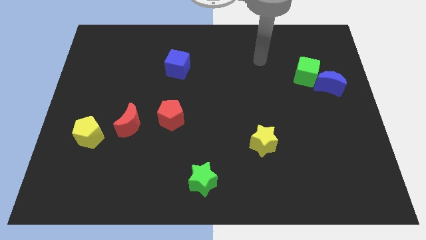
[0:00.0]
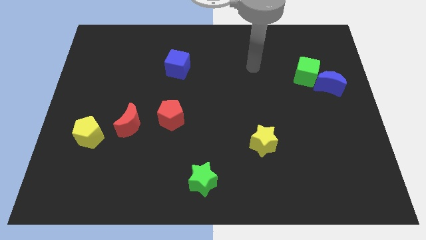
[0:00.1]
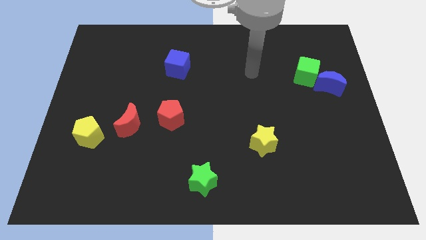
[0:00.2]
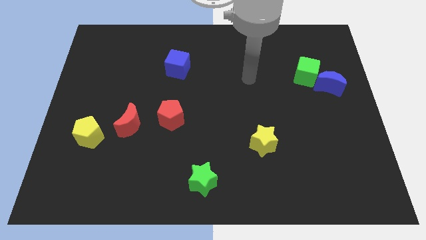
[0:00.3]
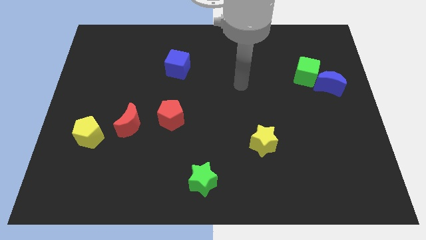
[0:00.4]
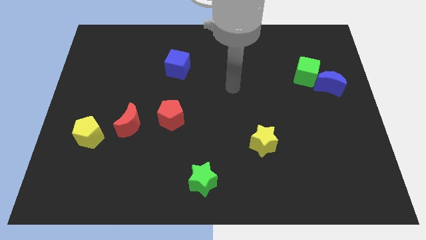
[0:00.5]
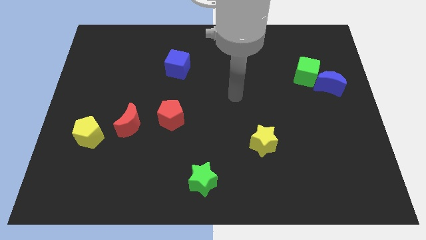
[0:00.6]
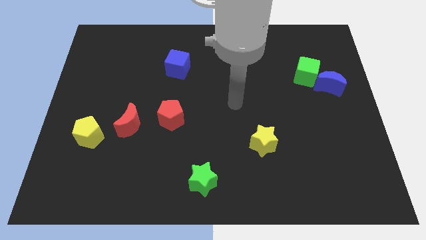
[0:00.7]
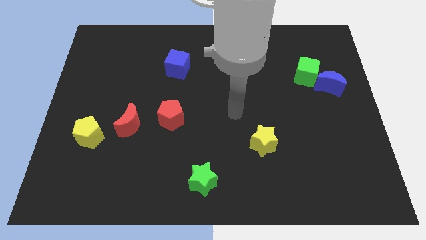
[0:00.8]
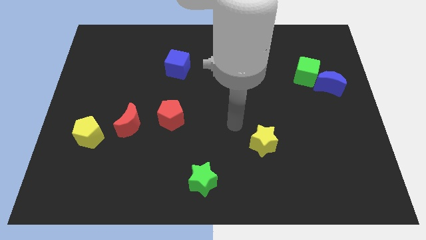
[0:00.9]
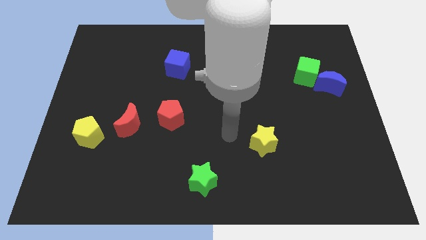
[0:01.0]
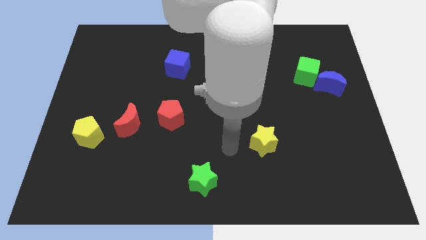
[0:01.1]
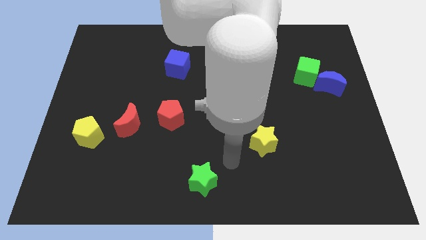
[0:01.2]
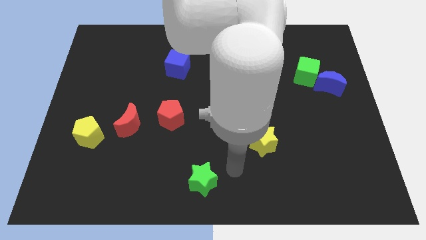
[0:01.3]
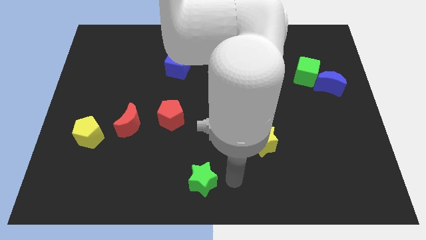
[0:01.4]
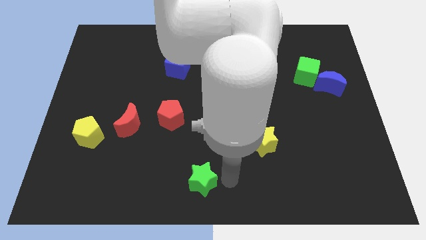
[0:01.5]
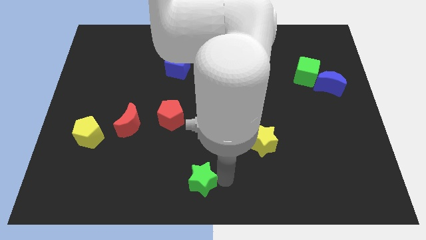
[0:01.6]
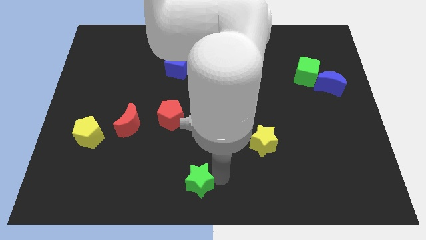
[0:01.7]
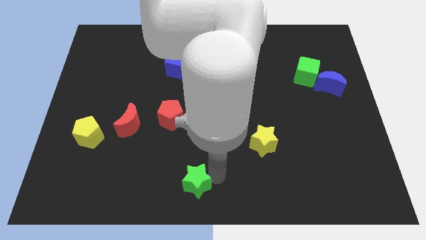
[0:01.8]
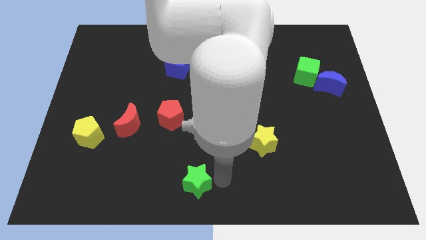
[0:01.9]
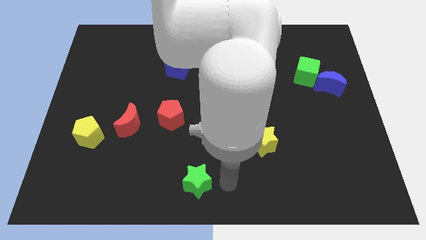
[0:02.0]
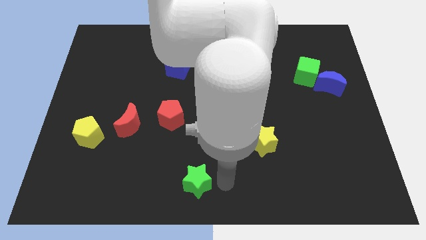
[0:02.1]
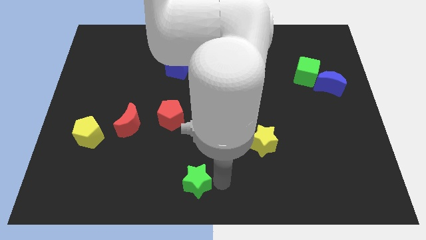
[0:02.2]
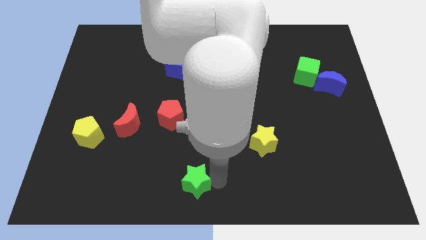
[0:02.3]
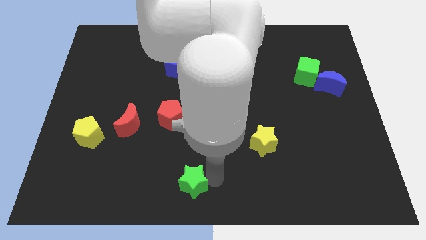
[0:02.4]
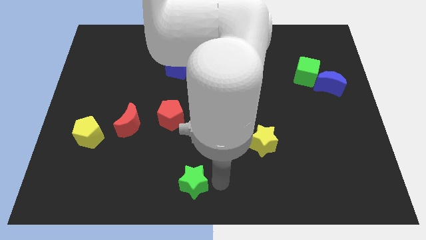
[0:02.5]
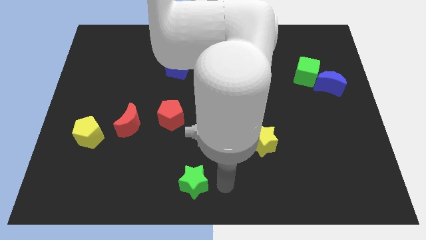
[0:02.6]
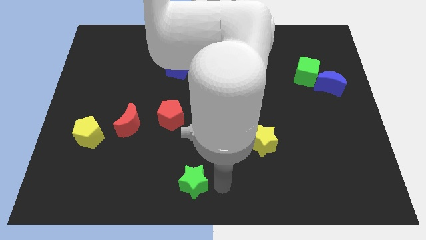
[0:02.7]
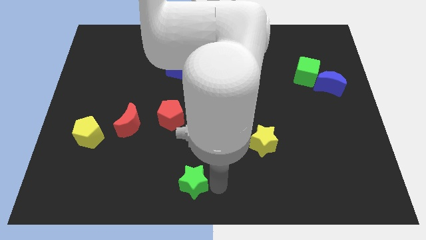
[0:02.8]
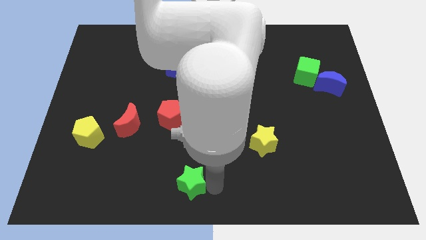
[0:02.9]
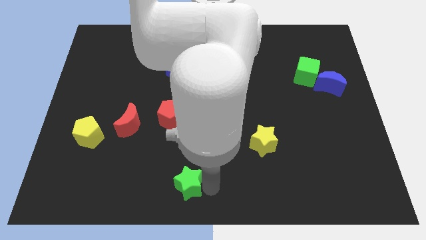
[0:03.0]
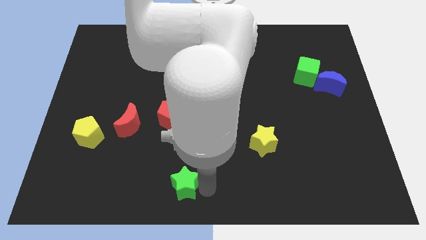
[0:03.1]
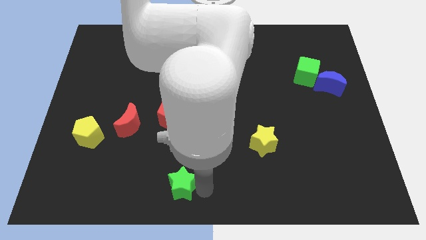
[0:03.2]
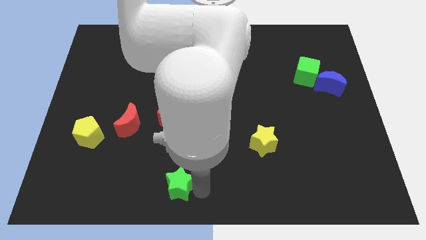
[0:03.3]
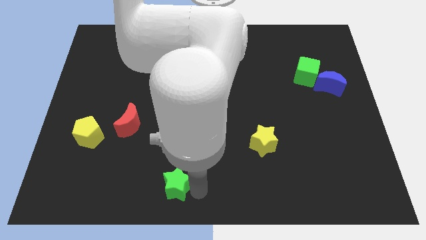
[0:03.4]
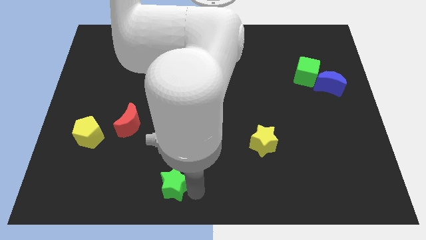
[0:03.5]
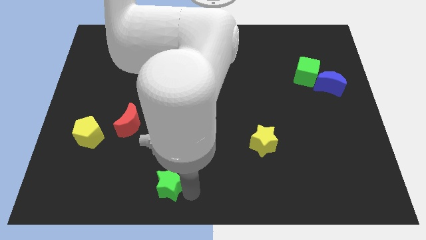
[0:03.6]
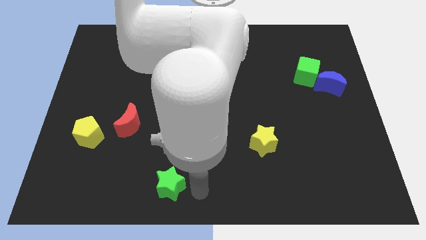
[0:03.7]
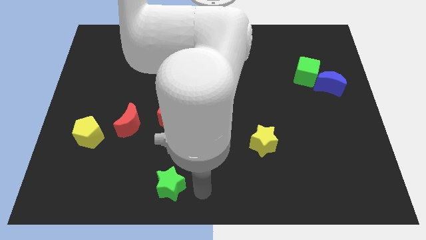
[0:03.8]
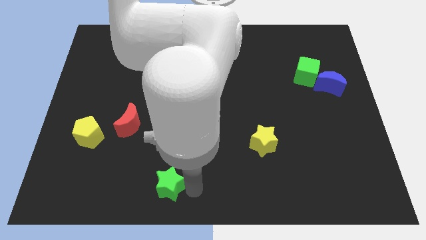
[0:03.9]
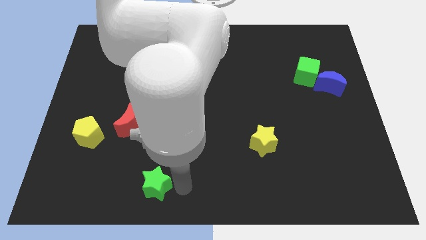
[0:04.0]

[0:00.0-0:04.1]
slide the green star left somewhat

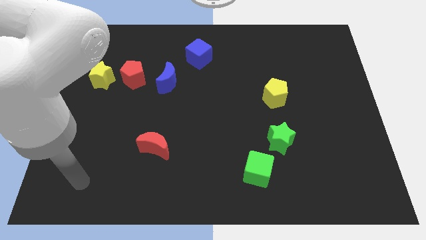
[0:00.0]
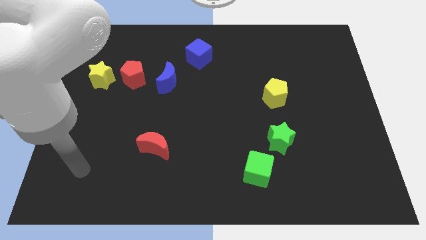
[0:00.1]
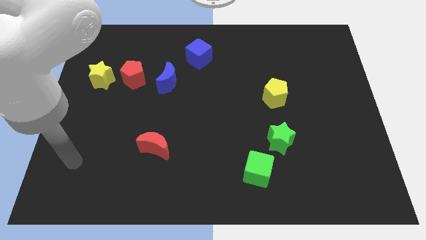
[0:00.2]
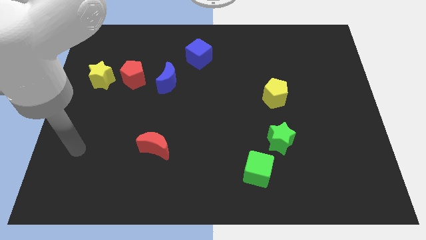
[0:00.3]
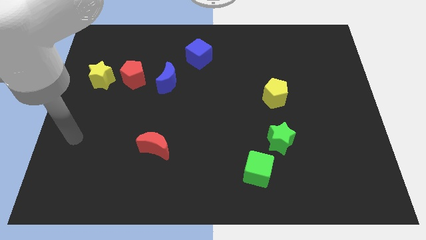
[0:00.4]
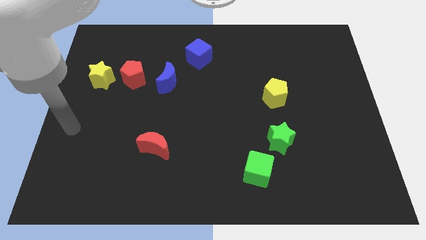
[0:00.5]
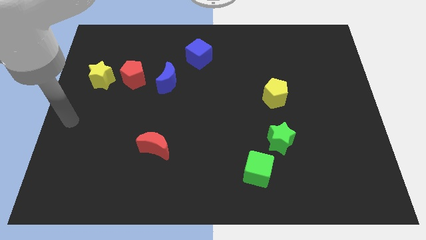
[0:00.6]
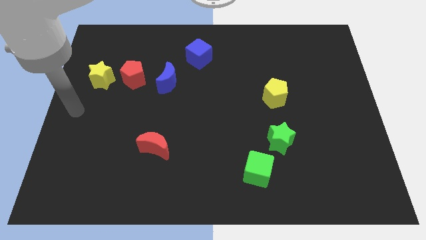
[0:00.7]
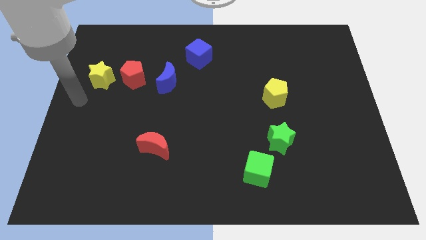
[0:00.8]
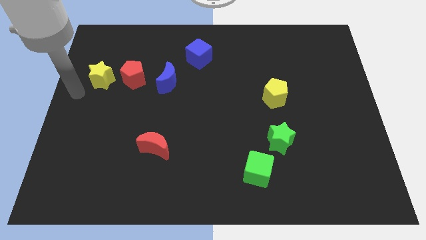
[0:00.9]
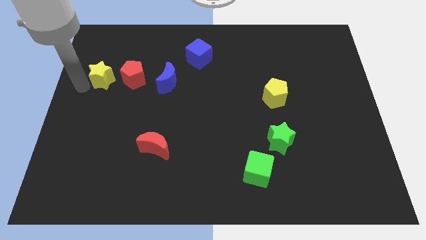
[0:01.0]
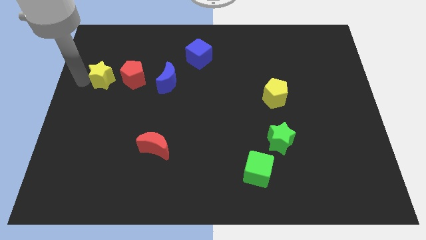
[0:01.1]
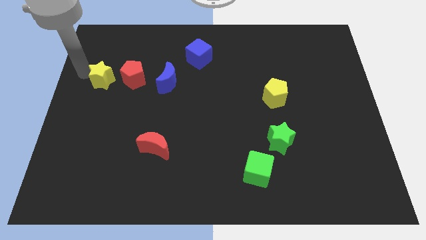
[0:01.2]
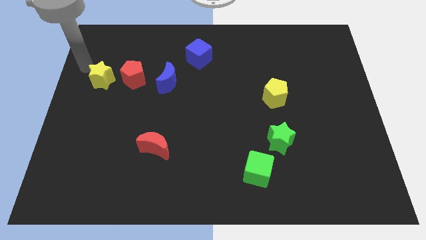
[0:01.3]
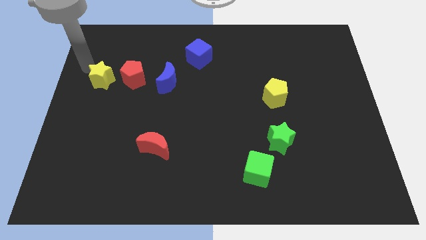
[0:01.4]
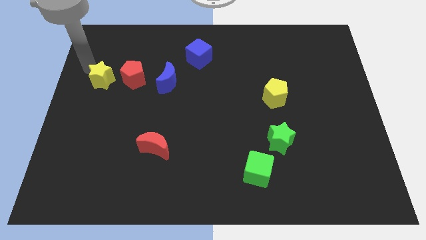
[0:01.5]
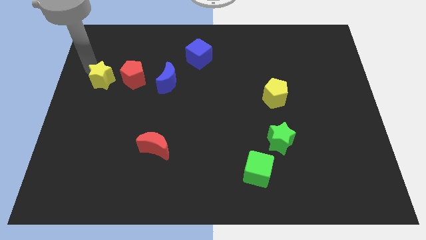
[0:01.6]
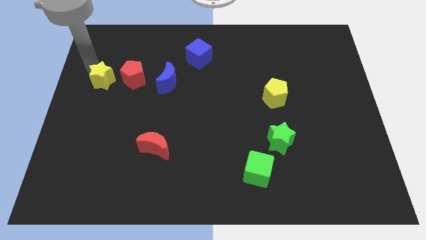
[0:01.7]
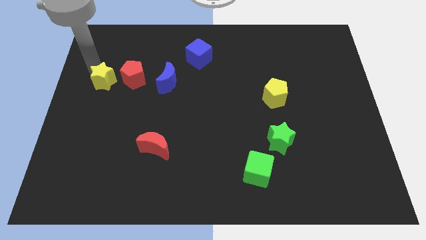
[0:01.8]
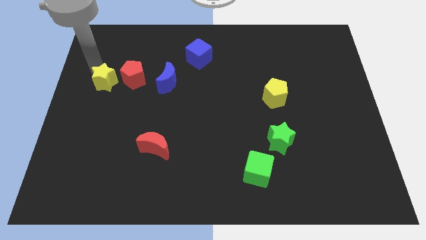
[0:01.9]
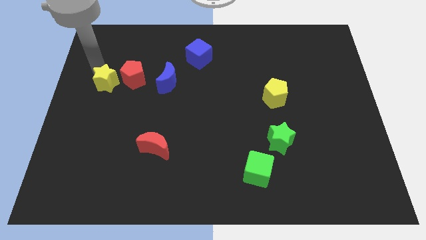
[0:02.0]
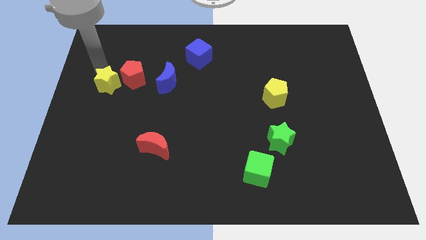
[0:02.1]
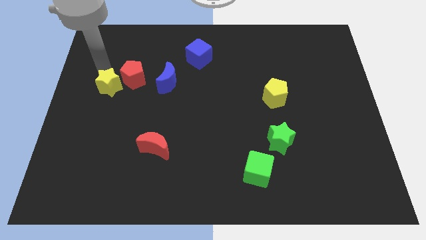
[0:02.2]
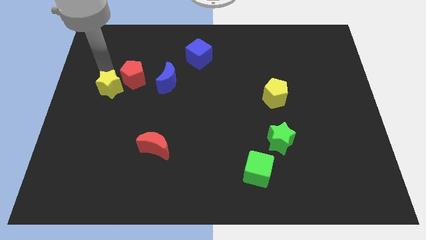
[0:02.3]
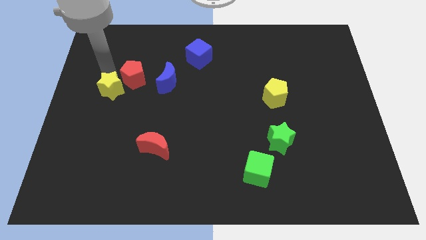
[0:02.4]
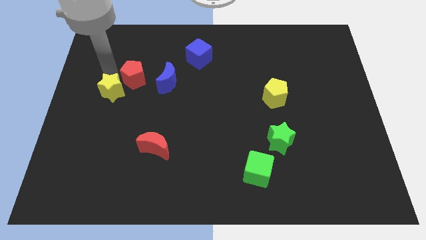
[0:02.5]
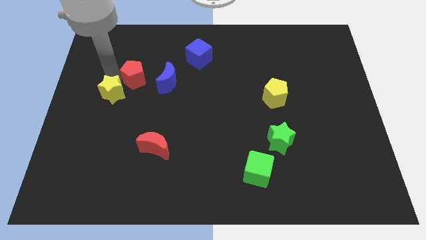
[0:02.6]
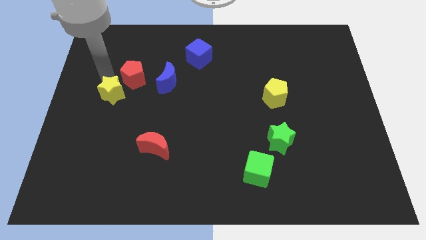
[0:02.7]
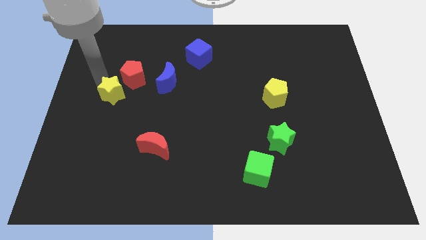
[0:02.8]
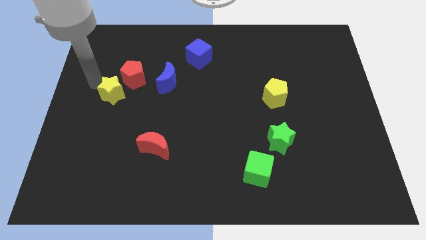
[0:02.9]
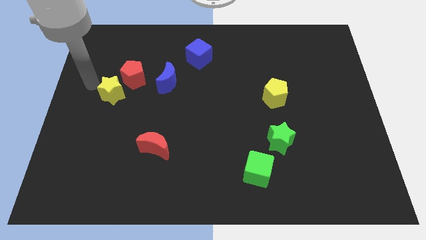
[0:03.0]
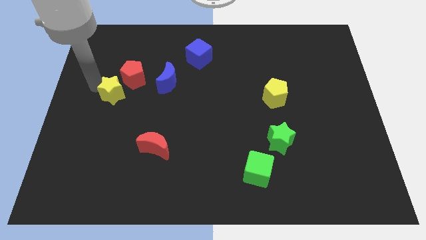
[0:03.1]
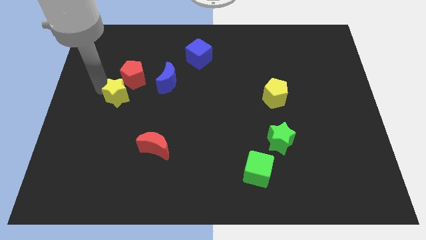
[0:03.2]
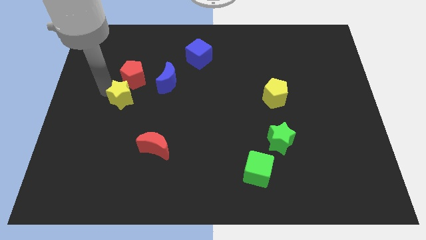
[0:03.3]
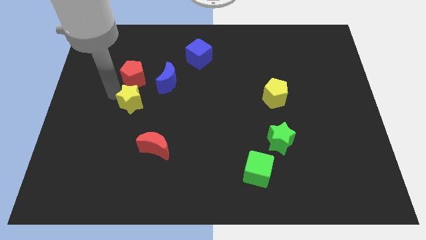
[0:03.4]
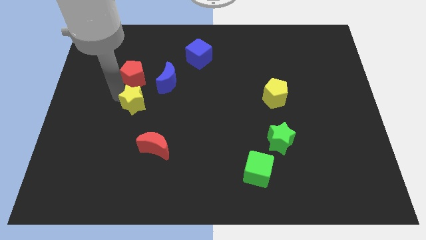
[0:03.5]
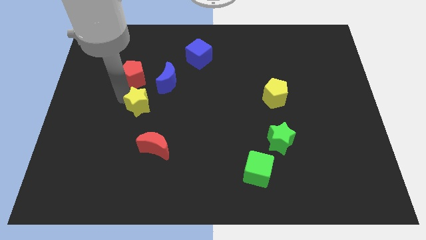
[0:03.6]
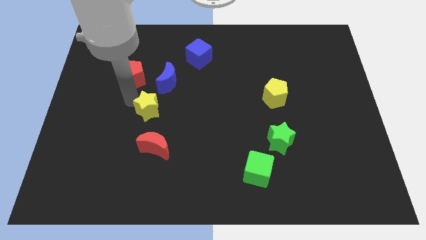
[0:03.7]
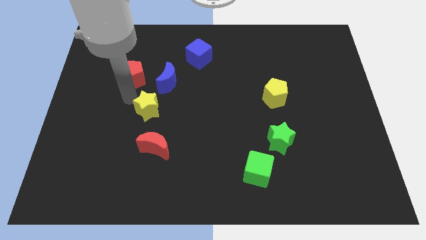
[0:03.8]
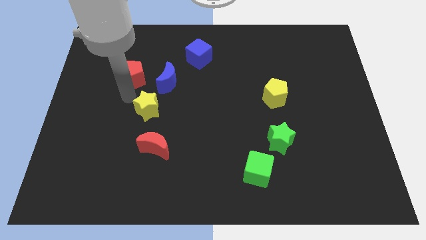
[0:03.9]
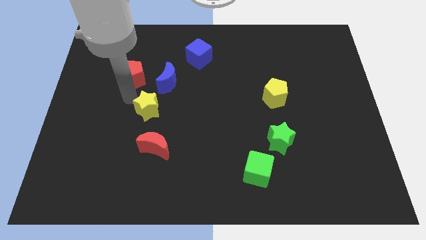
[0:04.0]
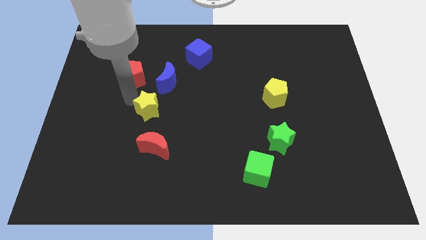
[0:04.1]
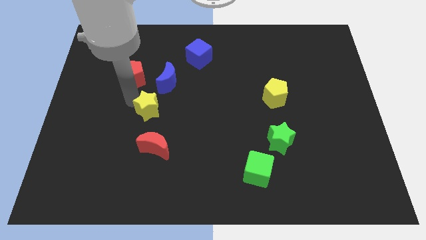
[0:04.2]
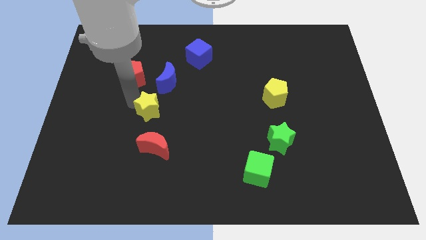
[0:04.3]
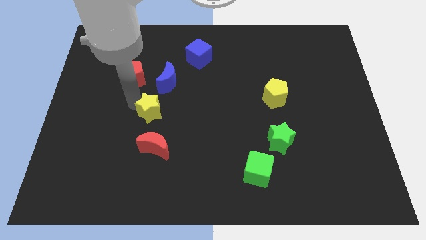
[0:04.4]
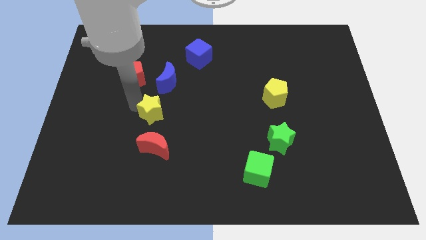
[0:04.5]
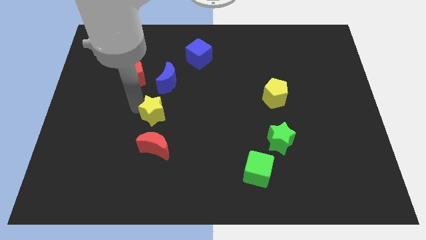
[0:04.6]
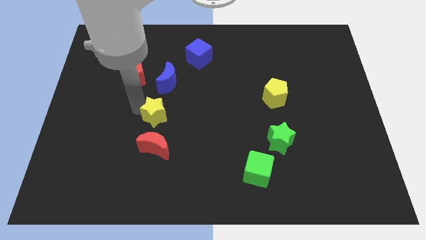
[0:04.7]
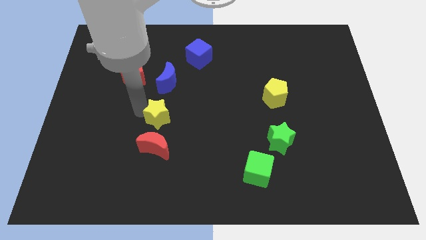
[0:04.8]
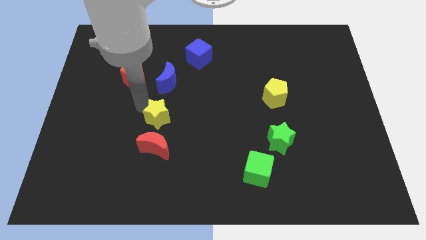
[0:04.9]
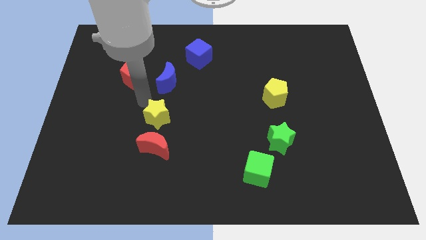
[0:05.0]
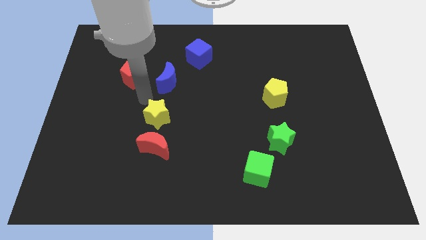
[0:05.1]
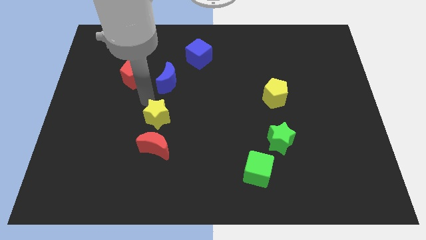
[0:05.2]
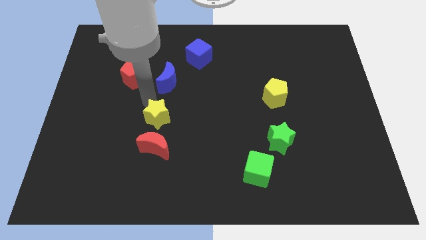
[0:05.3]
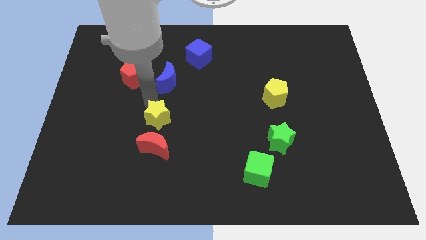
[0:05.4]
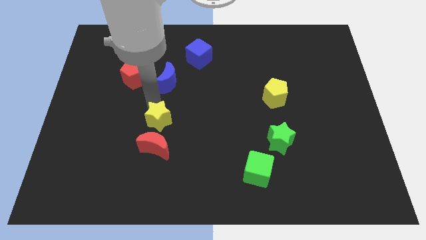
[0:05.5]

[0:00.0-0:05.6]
move the yellow star diagonally down and right
